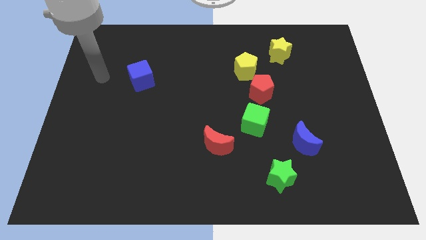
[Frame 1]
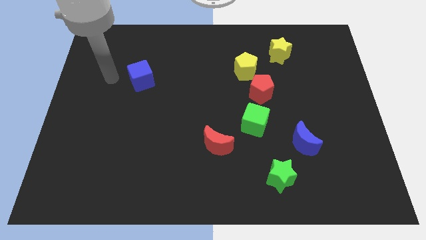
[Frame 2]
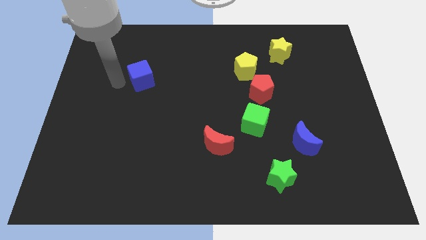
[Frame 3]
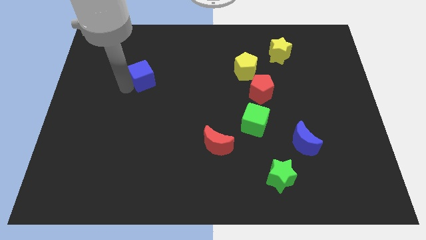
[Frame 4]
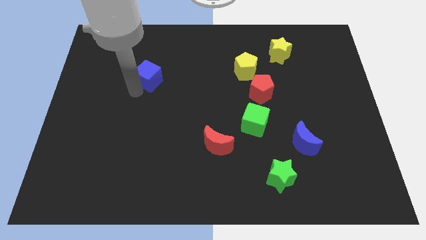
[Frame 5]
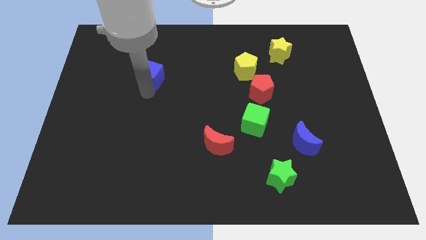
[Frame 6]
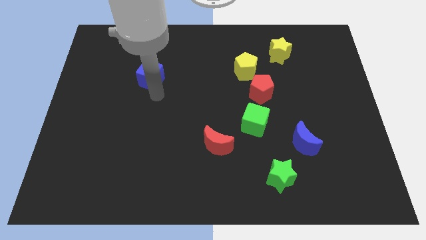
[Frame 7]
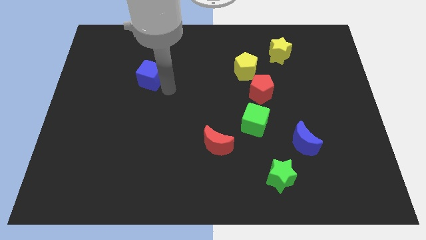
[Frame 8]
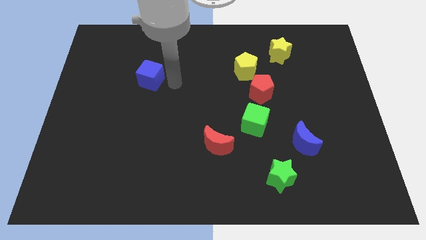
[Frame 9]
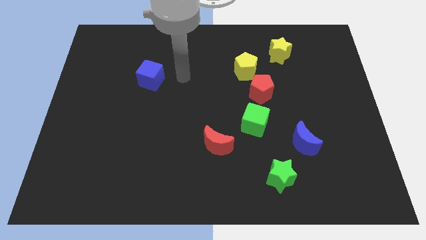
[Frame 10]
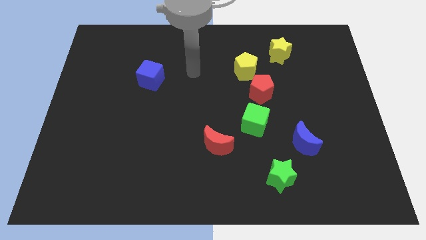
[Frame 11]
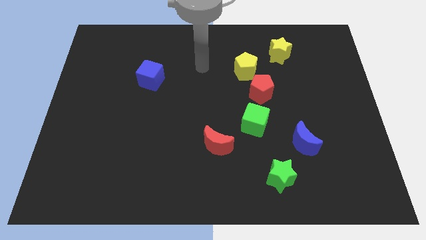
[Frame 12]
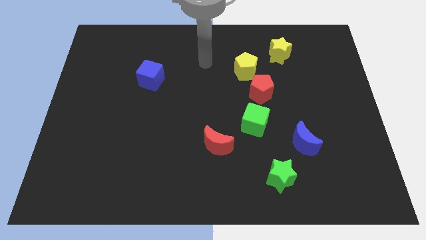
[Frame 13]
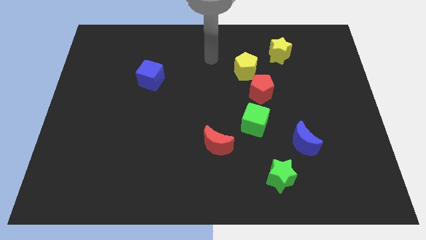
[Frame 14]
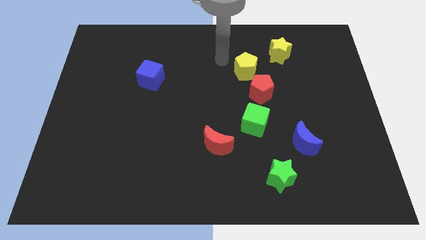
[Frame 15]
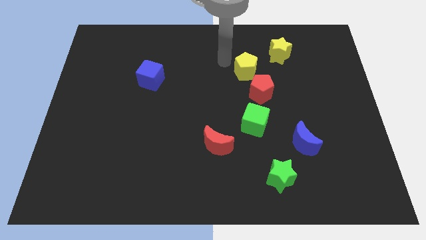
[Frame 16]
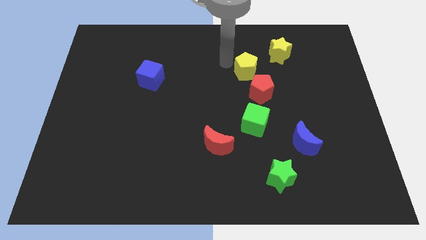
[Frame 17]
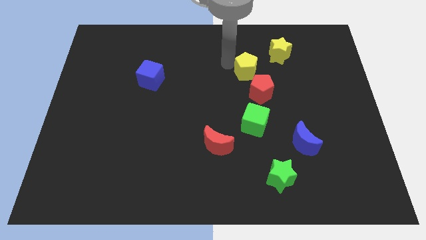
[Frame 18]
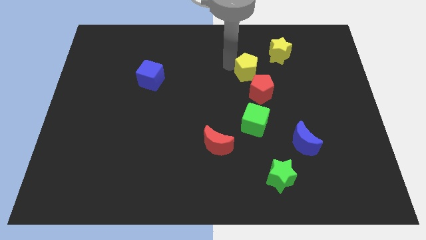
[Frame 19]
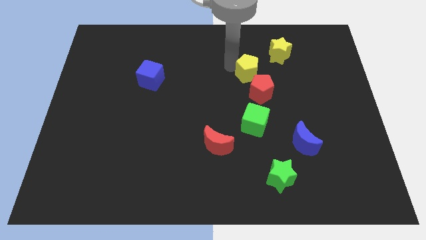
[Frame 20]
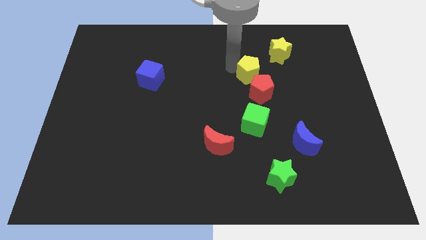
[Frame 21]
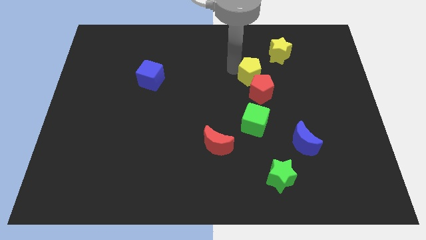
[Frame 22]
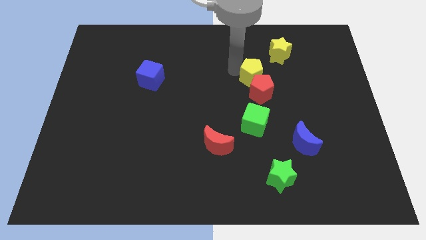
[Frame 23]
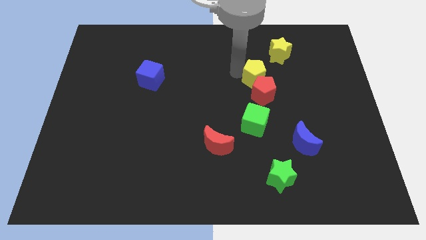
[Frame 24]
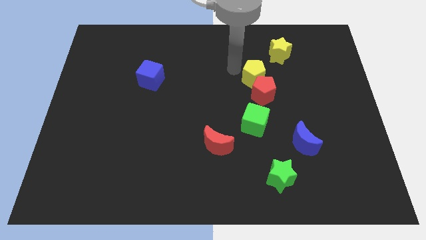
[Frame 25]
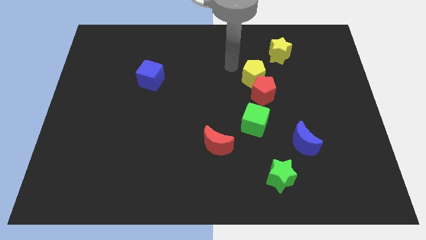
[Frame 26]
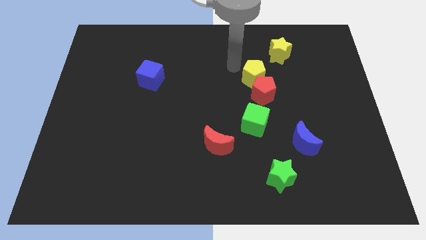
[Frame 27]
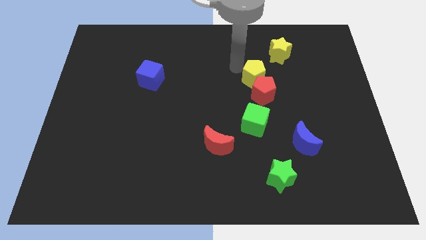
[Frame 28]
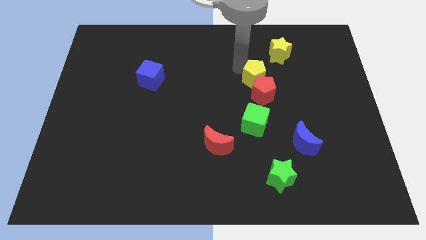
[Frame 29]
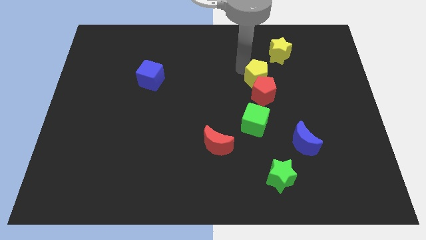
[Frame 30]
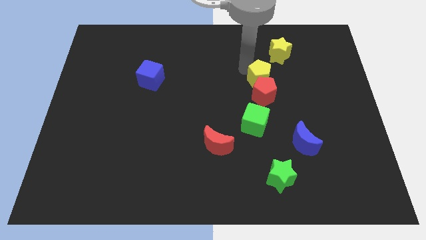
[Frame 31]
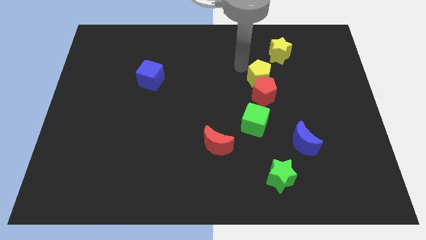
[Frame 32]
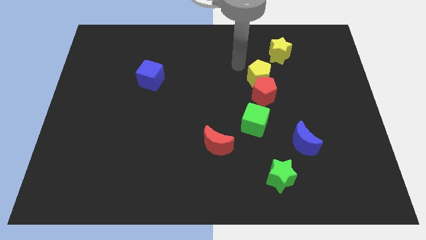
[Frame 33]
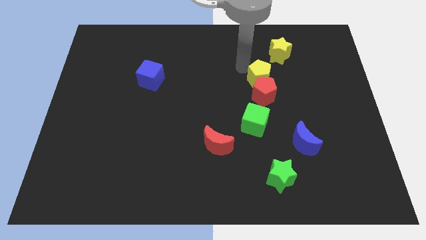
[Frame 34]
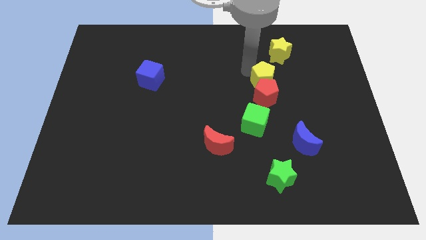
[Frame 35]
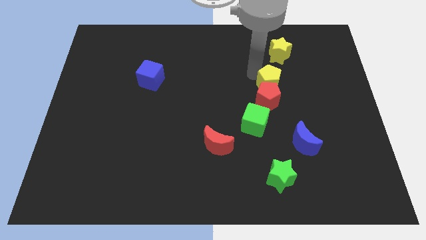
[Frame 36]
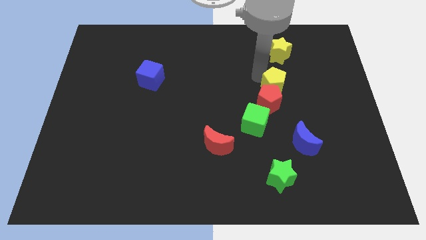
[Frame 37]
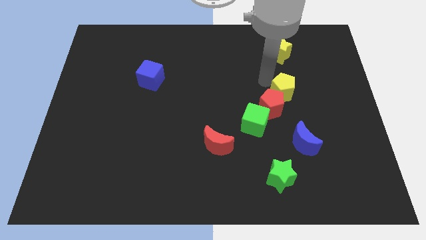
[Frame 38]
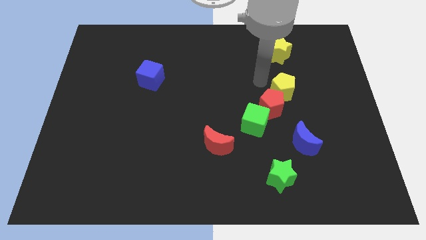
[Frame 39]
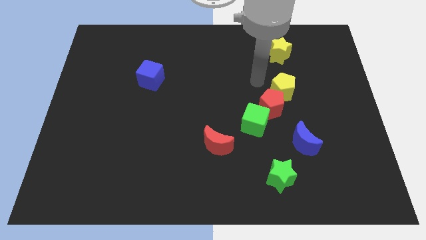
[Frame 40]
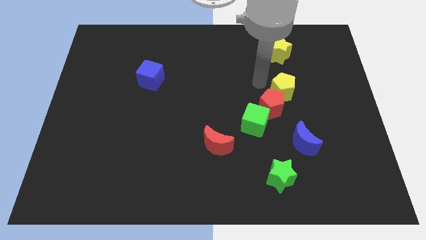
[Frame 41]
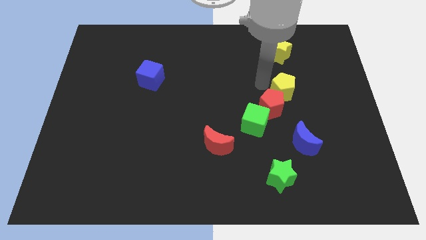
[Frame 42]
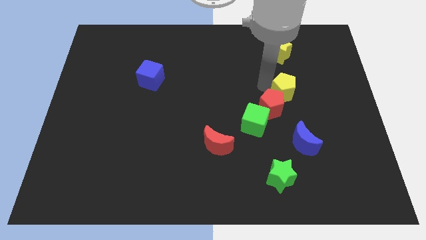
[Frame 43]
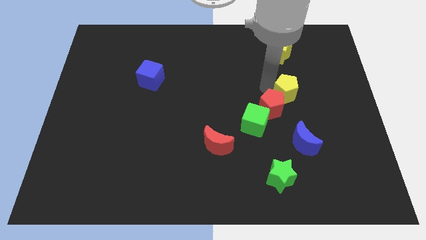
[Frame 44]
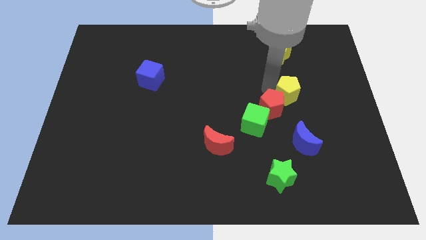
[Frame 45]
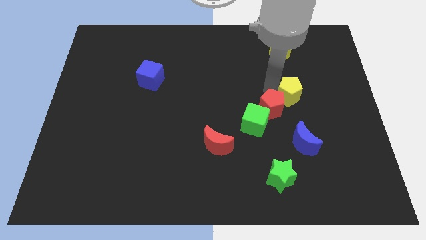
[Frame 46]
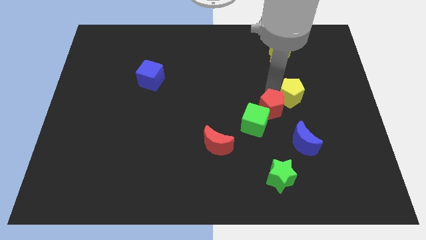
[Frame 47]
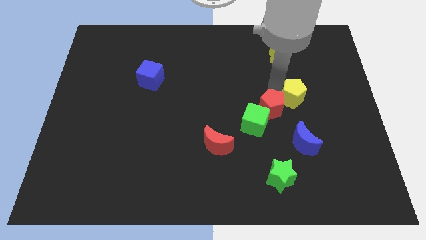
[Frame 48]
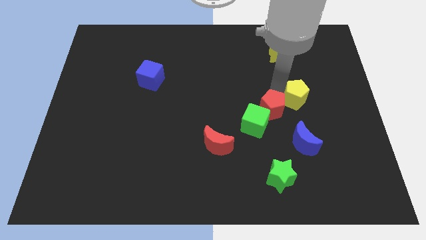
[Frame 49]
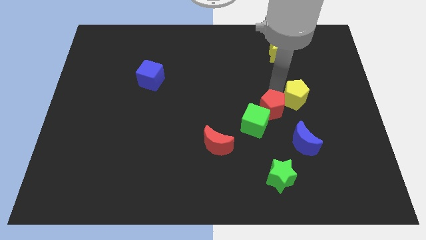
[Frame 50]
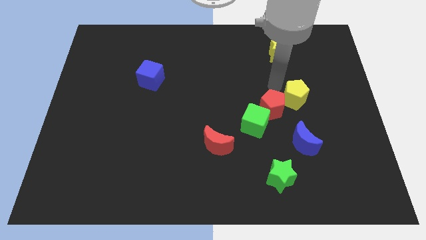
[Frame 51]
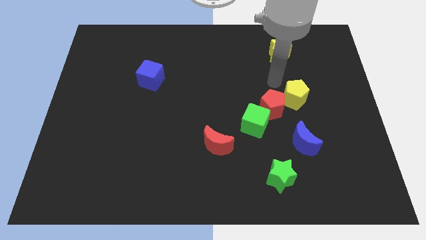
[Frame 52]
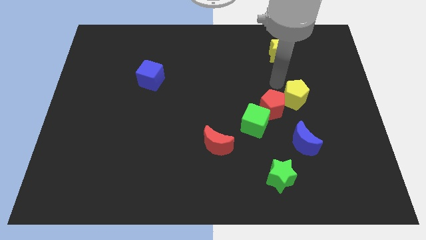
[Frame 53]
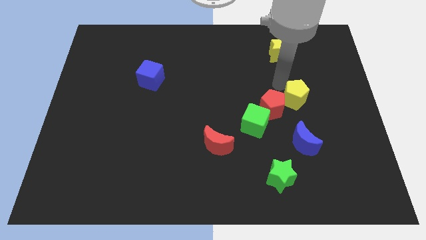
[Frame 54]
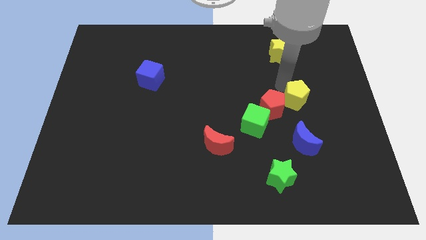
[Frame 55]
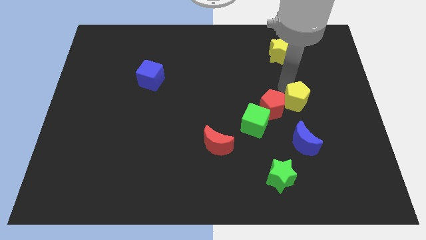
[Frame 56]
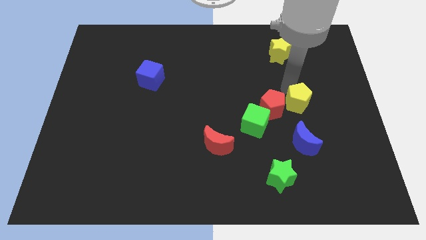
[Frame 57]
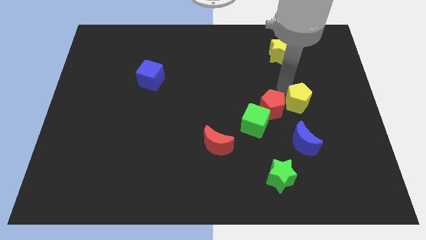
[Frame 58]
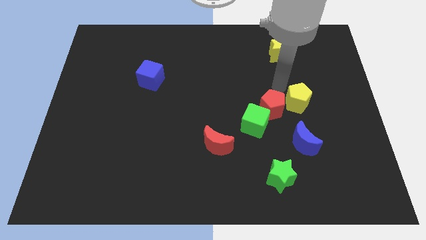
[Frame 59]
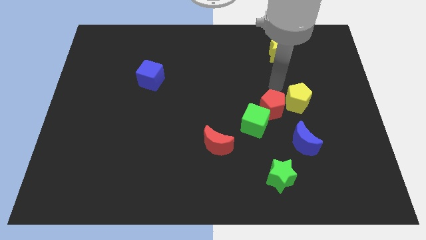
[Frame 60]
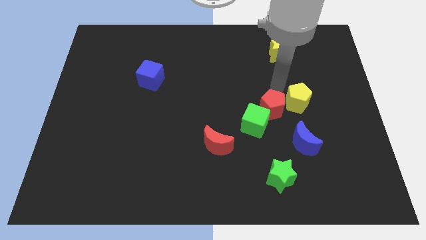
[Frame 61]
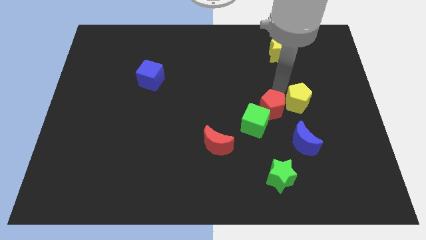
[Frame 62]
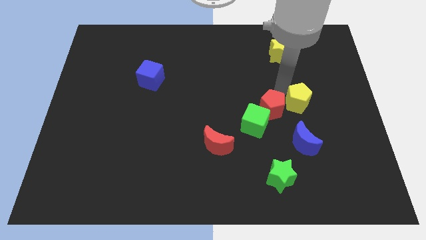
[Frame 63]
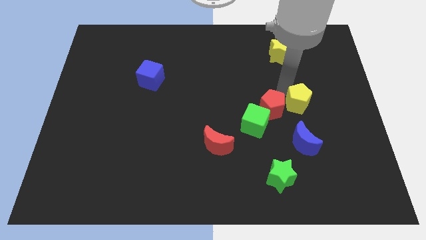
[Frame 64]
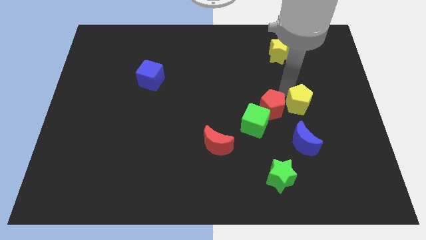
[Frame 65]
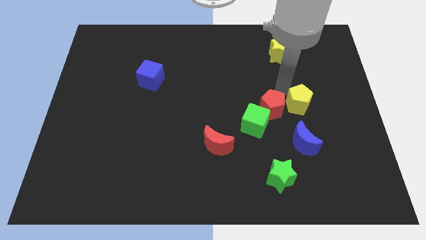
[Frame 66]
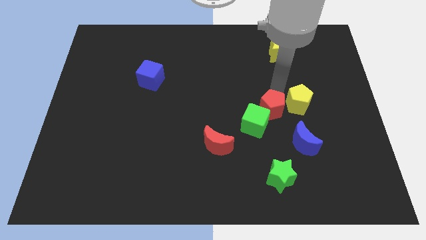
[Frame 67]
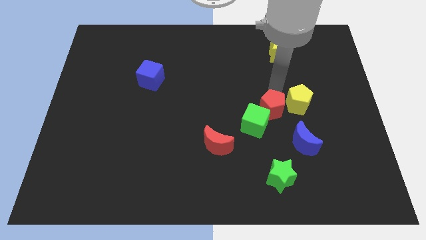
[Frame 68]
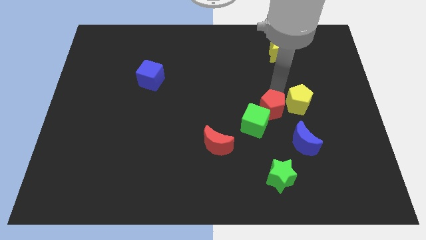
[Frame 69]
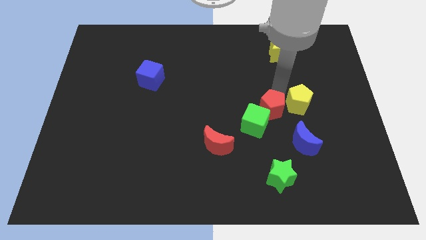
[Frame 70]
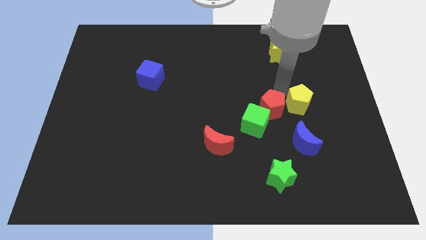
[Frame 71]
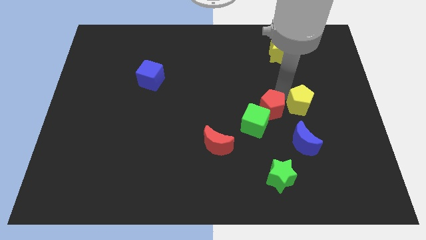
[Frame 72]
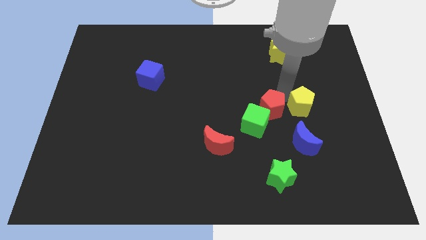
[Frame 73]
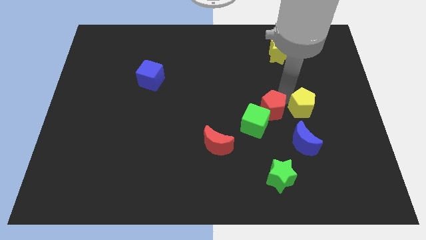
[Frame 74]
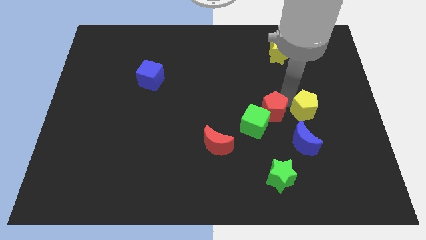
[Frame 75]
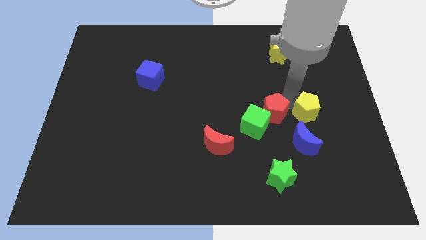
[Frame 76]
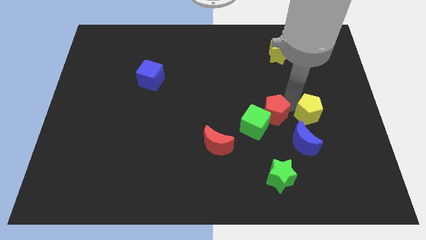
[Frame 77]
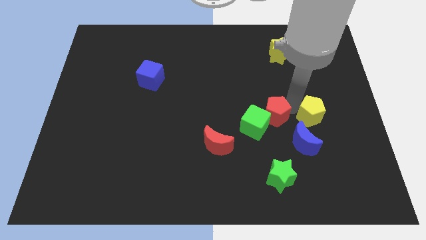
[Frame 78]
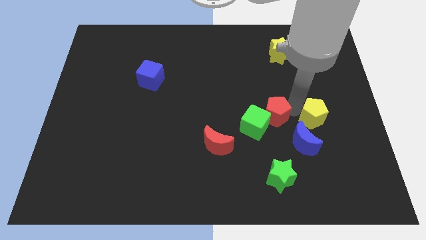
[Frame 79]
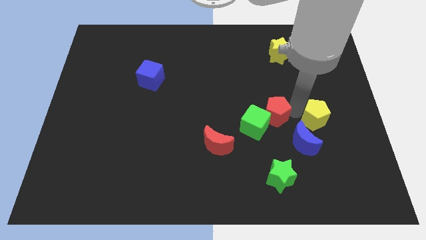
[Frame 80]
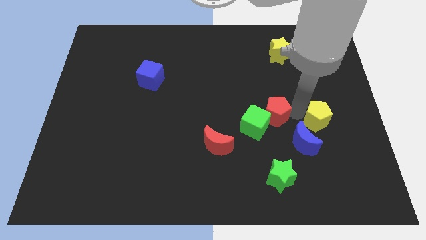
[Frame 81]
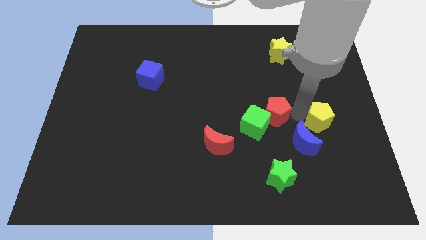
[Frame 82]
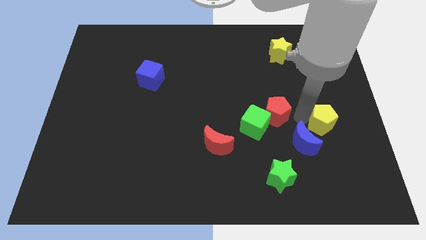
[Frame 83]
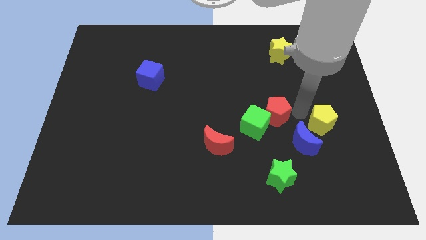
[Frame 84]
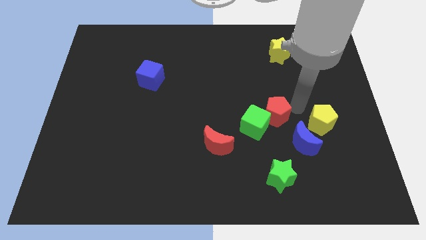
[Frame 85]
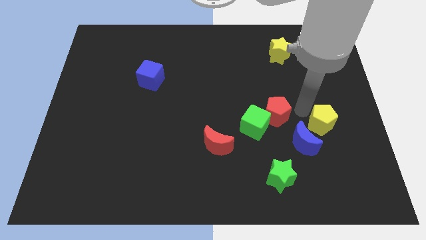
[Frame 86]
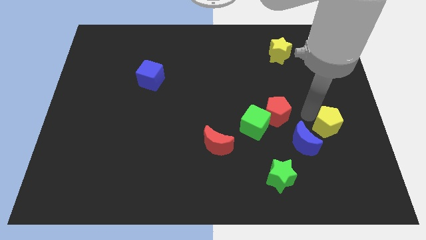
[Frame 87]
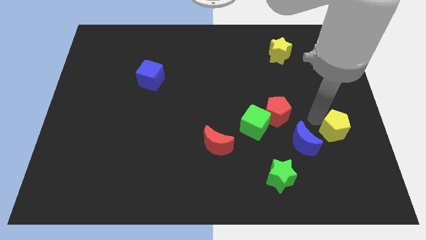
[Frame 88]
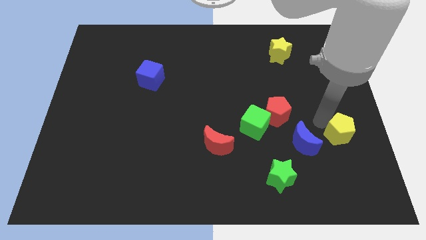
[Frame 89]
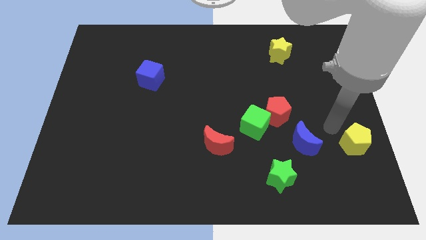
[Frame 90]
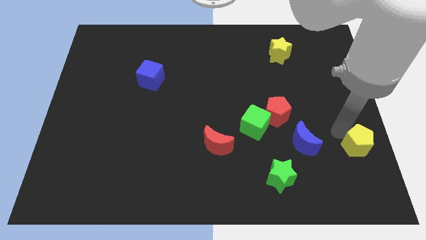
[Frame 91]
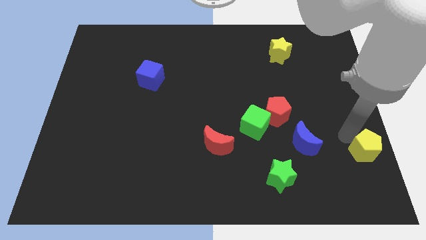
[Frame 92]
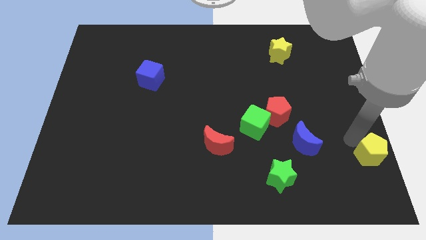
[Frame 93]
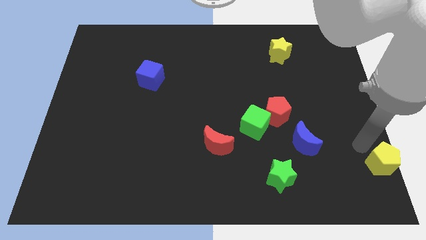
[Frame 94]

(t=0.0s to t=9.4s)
put the yellow pentagon to the bottom right corner
